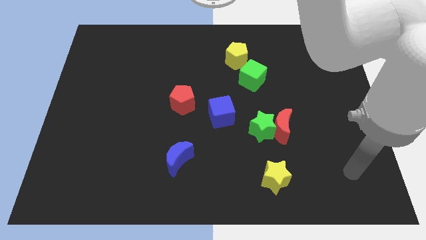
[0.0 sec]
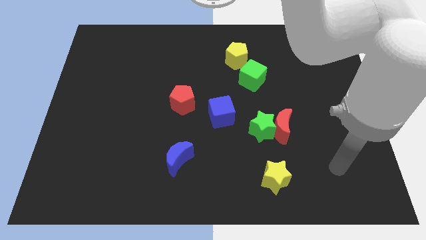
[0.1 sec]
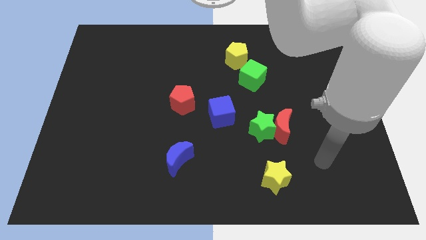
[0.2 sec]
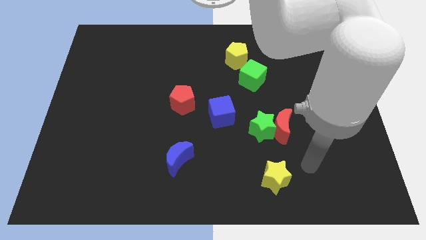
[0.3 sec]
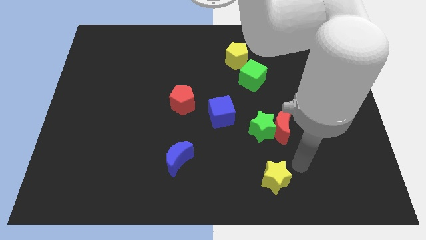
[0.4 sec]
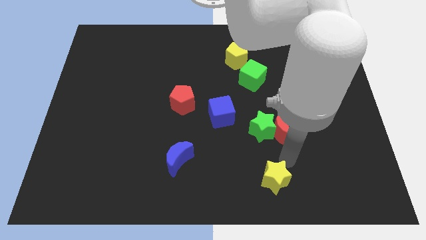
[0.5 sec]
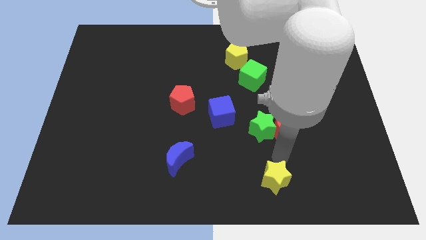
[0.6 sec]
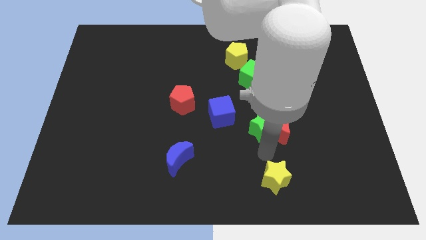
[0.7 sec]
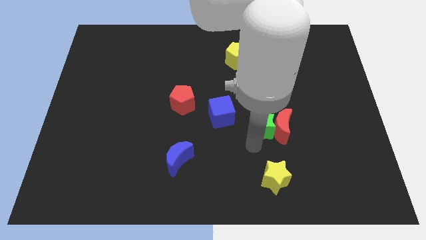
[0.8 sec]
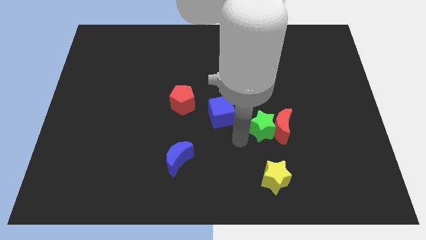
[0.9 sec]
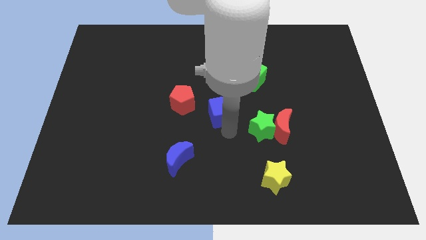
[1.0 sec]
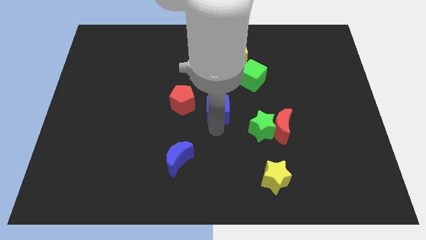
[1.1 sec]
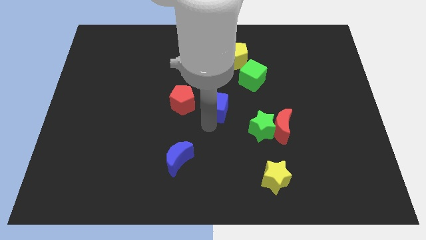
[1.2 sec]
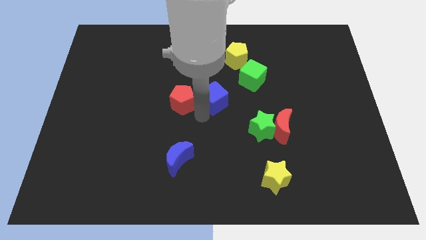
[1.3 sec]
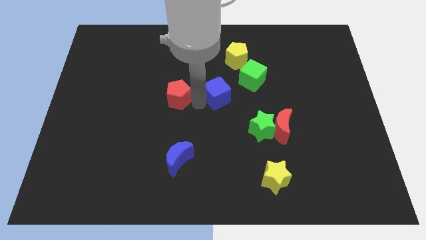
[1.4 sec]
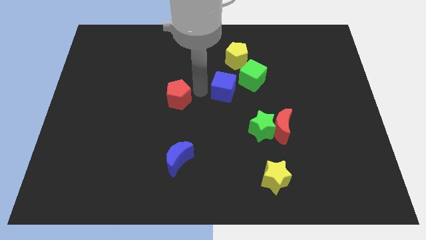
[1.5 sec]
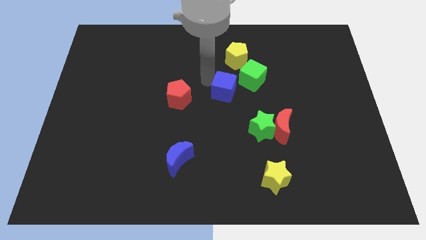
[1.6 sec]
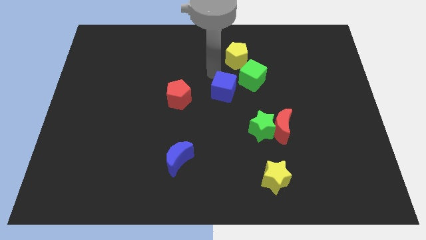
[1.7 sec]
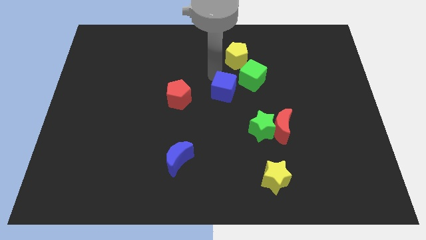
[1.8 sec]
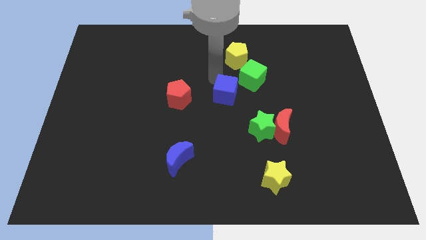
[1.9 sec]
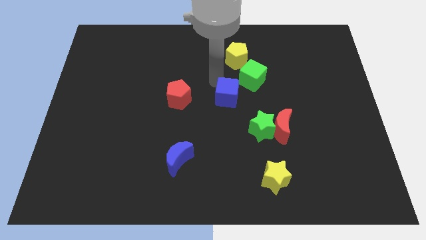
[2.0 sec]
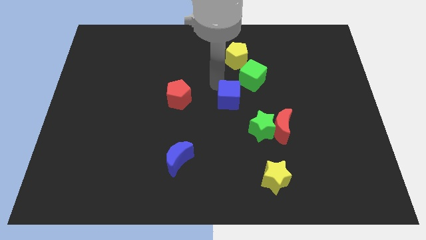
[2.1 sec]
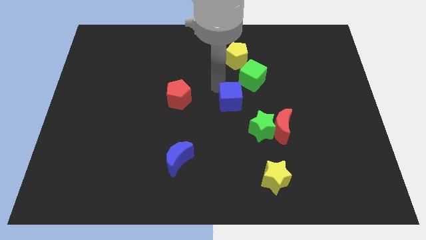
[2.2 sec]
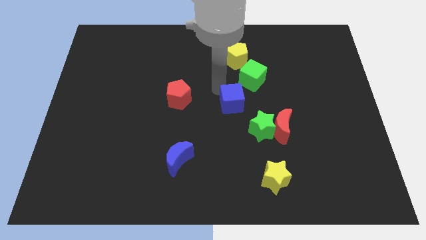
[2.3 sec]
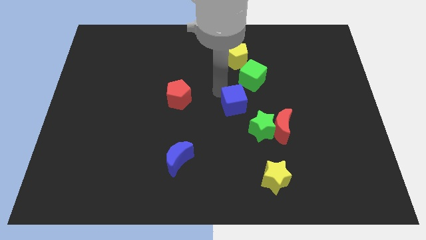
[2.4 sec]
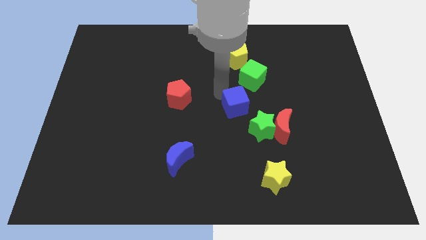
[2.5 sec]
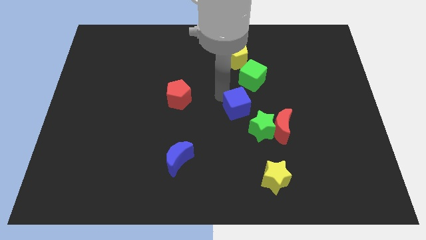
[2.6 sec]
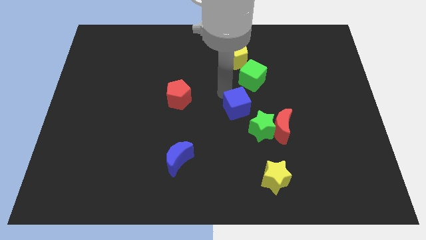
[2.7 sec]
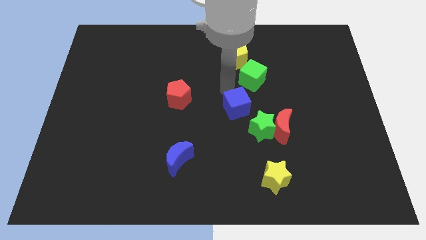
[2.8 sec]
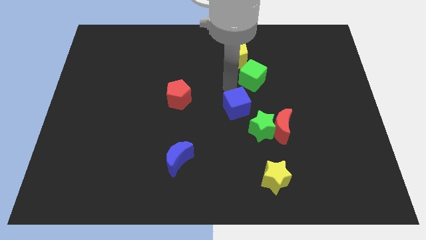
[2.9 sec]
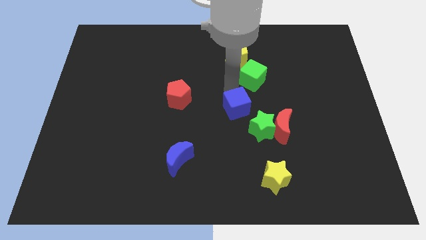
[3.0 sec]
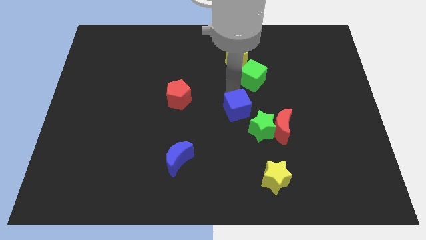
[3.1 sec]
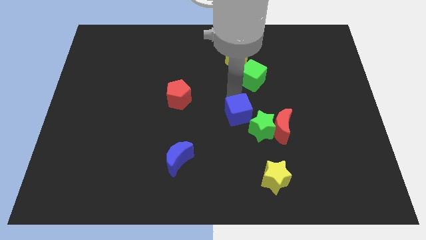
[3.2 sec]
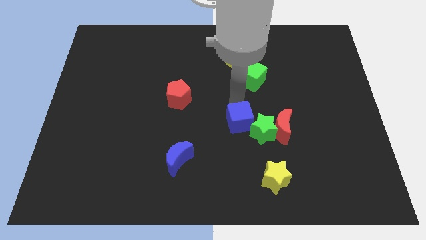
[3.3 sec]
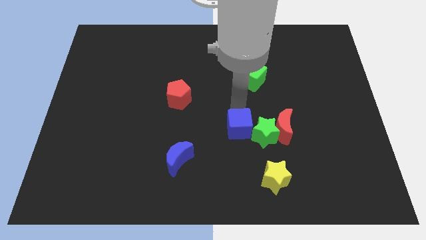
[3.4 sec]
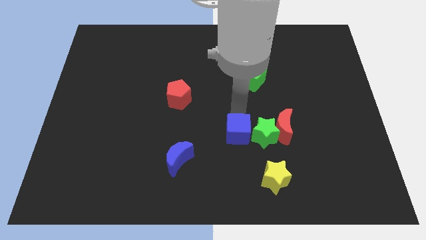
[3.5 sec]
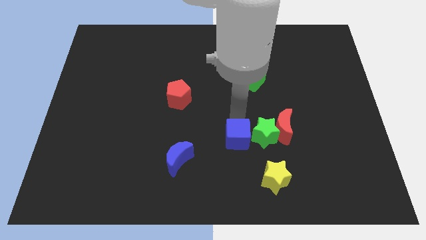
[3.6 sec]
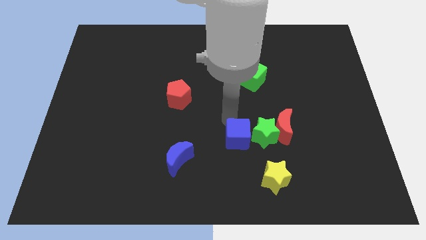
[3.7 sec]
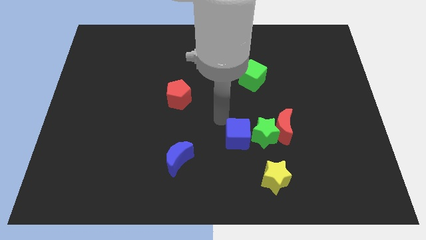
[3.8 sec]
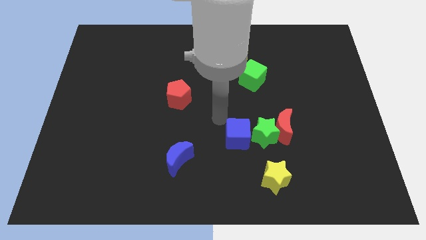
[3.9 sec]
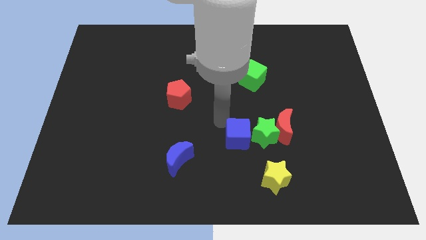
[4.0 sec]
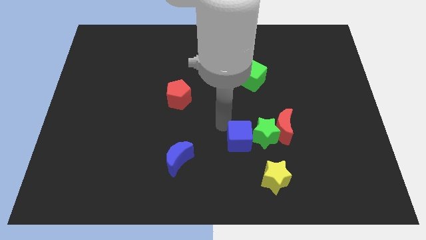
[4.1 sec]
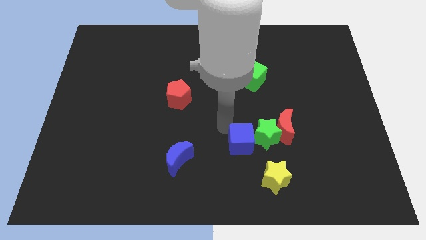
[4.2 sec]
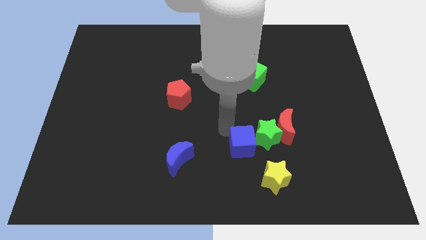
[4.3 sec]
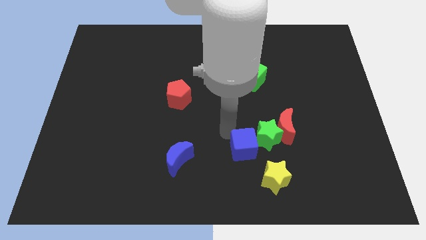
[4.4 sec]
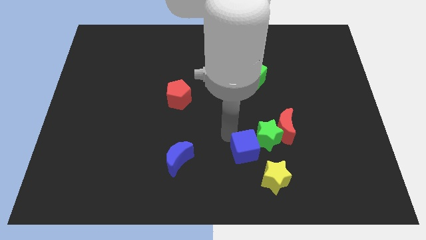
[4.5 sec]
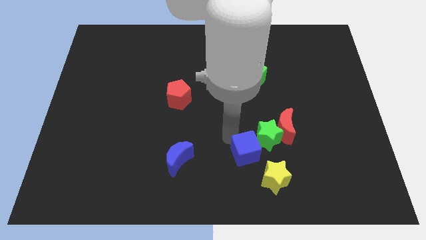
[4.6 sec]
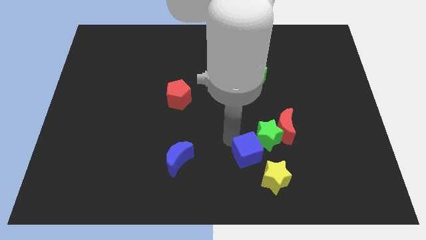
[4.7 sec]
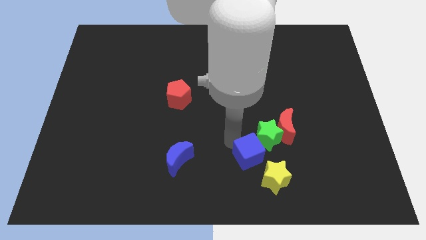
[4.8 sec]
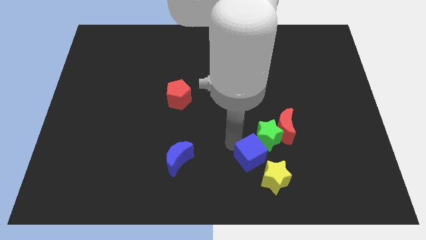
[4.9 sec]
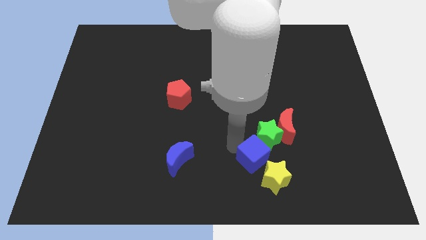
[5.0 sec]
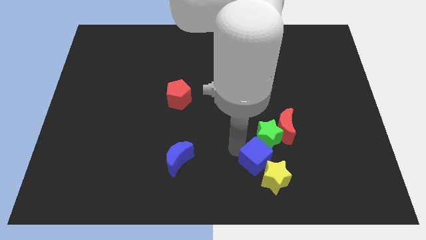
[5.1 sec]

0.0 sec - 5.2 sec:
put the blue cube close to the yellow star

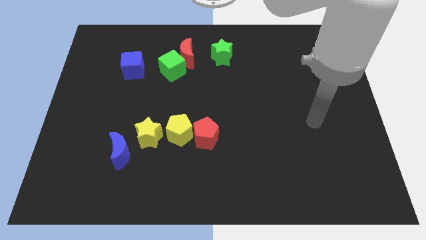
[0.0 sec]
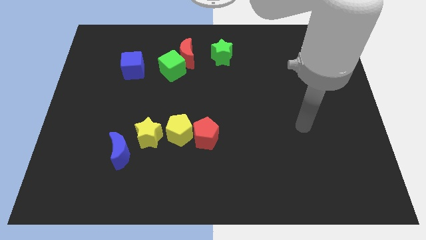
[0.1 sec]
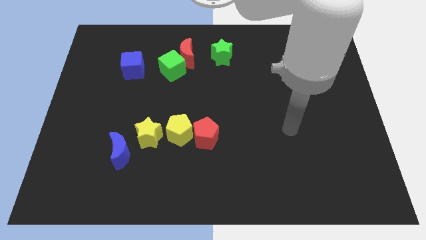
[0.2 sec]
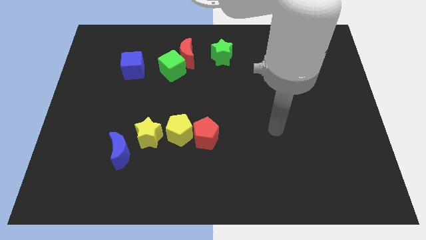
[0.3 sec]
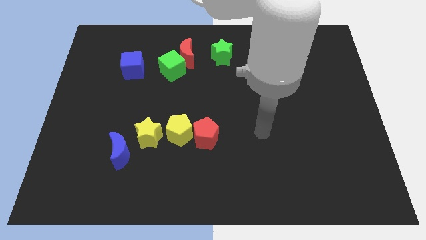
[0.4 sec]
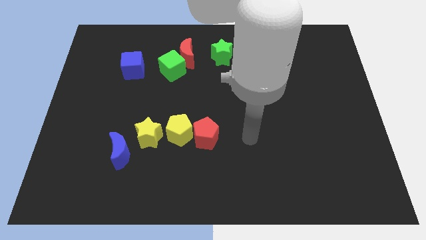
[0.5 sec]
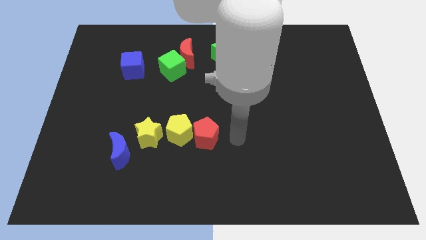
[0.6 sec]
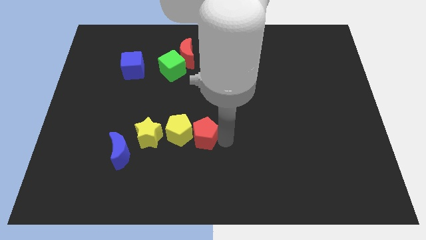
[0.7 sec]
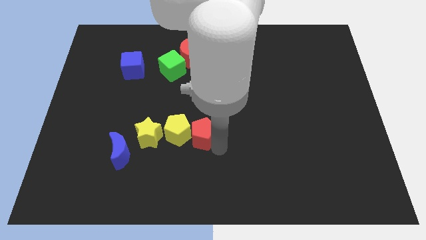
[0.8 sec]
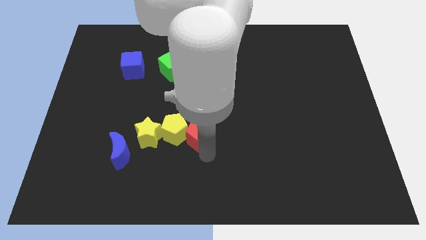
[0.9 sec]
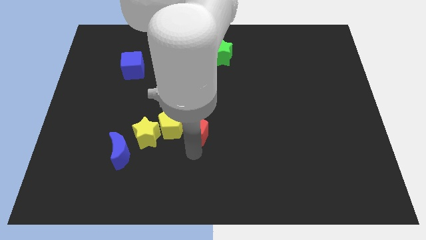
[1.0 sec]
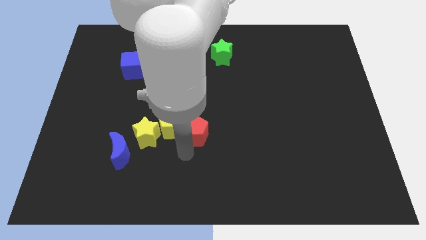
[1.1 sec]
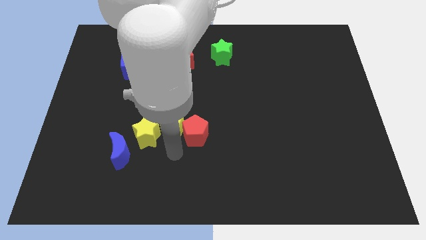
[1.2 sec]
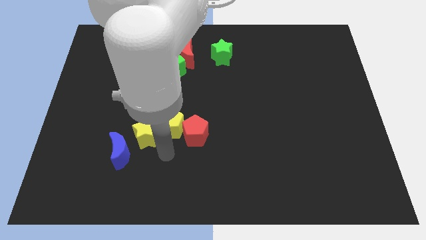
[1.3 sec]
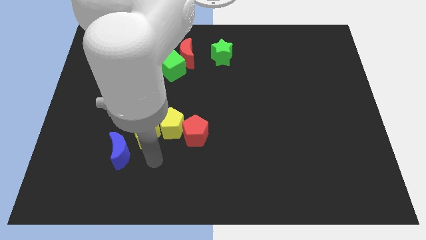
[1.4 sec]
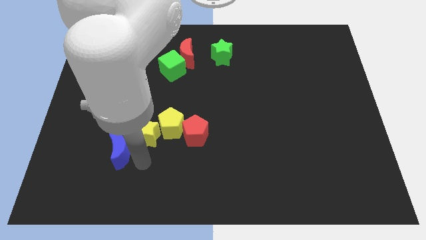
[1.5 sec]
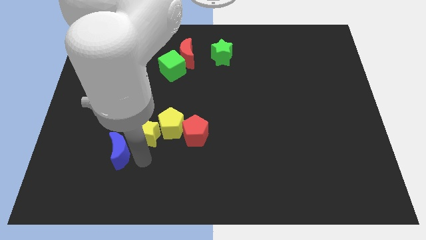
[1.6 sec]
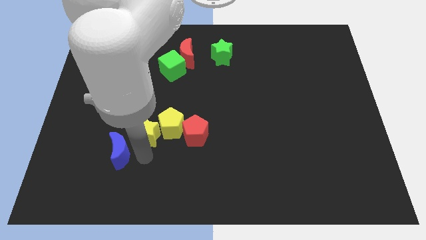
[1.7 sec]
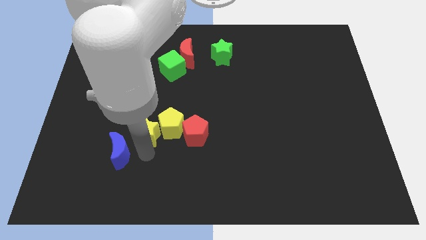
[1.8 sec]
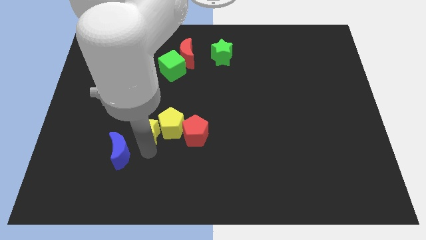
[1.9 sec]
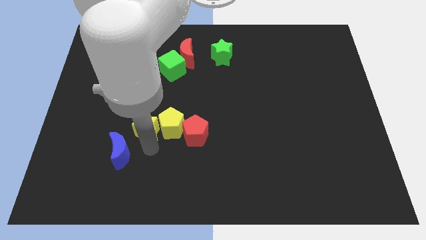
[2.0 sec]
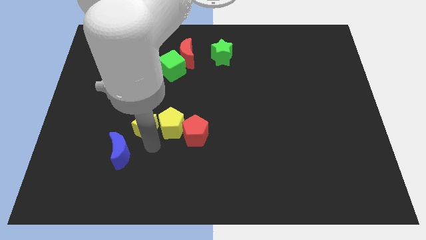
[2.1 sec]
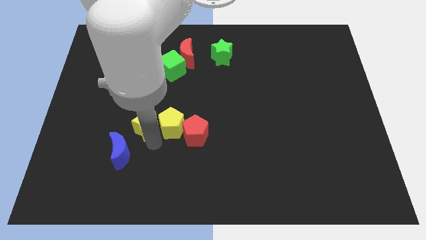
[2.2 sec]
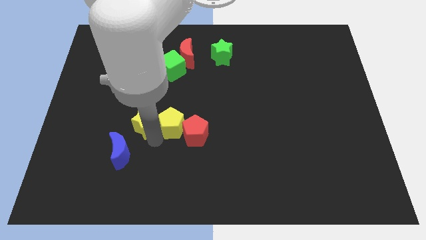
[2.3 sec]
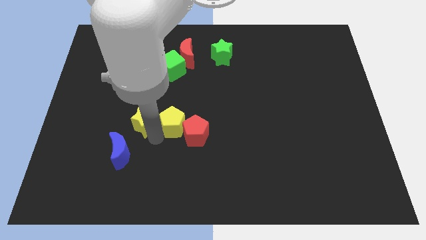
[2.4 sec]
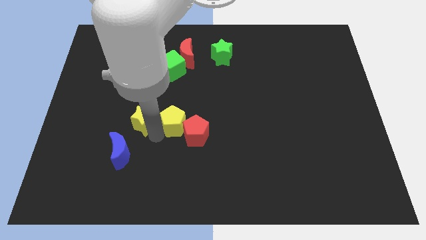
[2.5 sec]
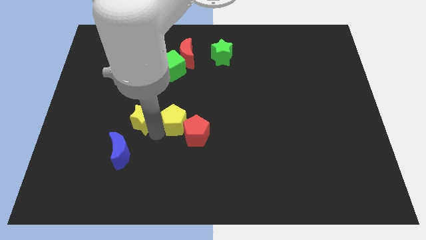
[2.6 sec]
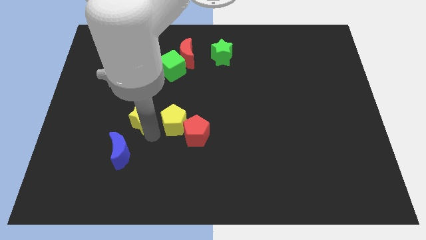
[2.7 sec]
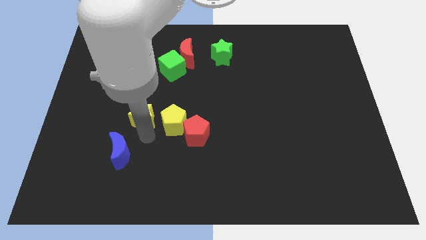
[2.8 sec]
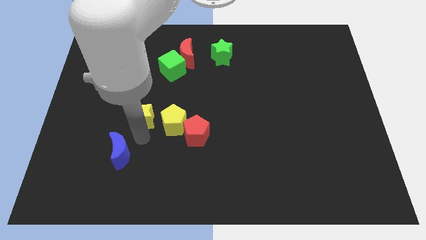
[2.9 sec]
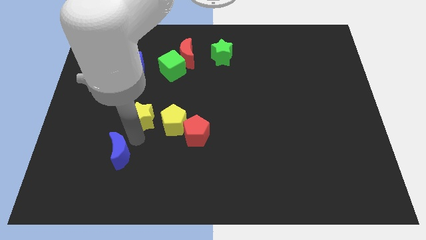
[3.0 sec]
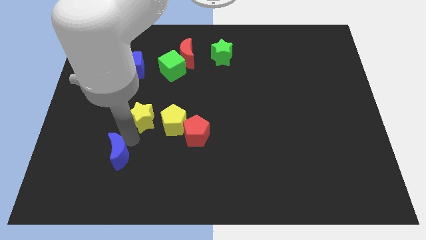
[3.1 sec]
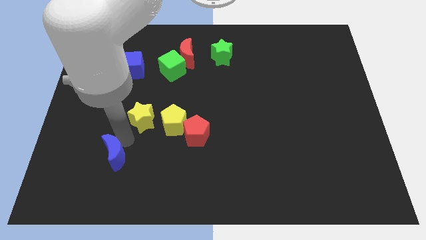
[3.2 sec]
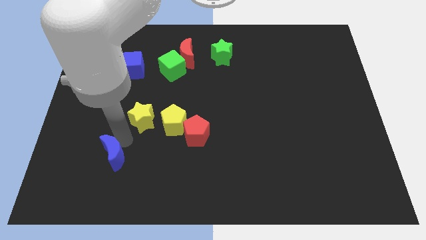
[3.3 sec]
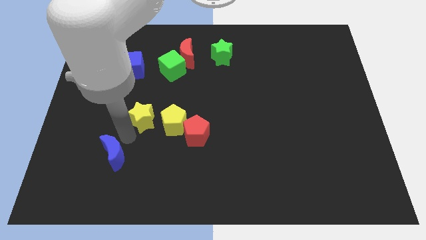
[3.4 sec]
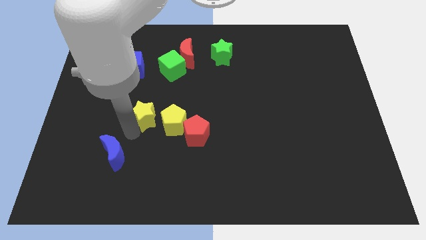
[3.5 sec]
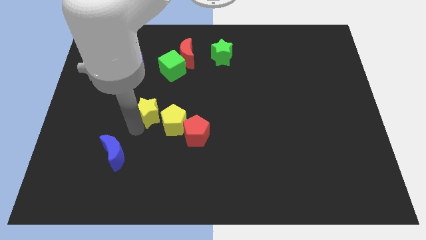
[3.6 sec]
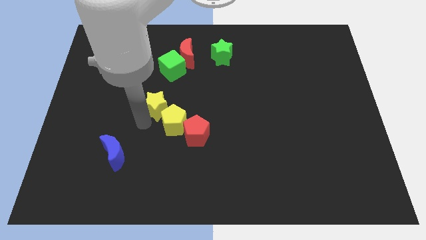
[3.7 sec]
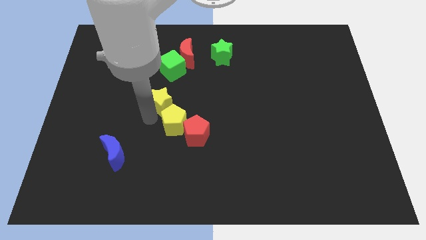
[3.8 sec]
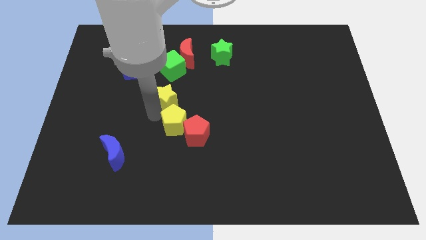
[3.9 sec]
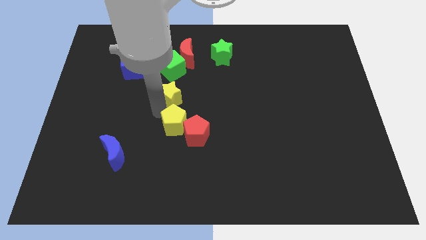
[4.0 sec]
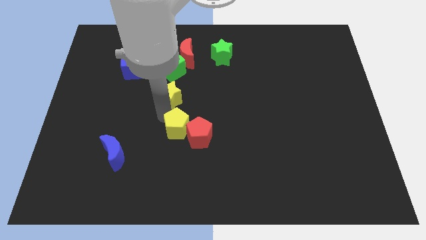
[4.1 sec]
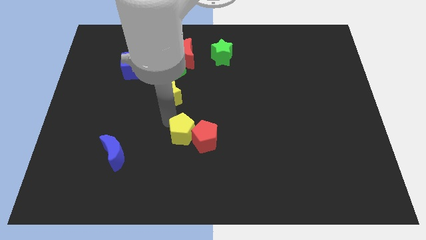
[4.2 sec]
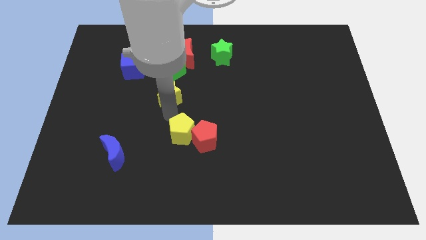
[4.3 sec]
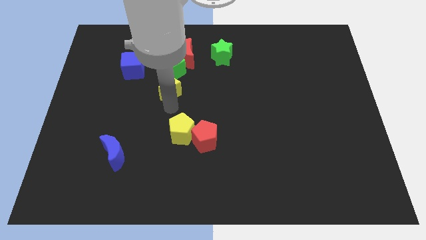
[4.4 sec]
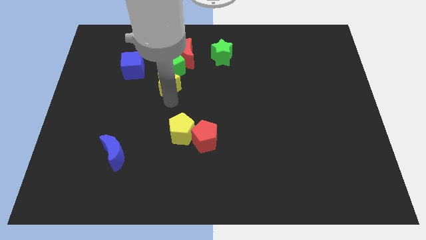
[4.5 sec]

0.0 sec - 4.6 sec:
slide the yellow star towards the green cube
